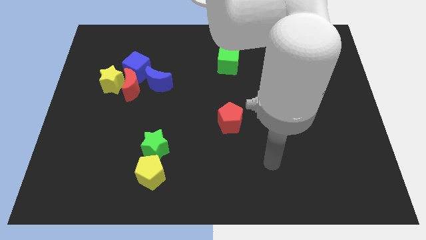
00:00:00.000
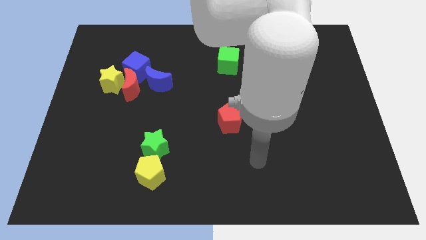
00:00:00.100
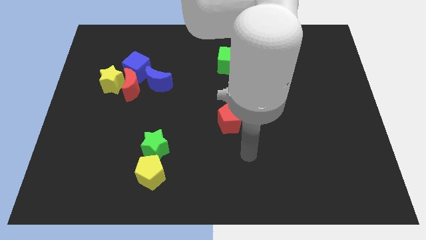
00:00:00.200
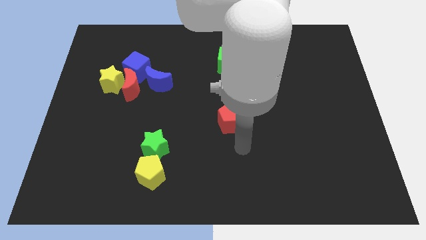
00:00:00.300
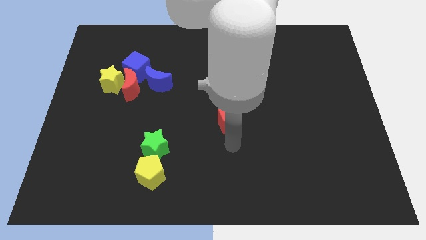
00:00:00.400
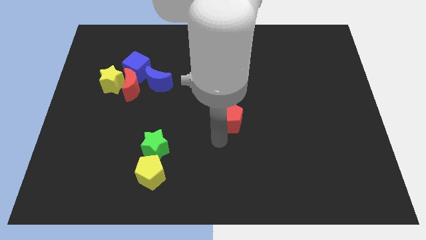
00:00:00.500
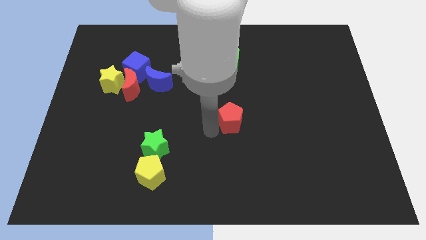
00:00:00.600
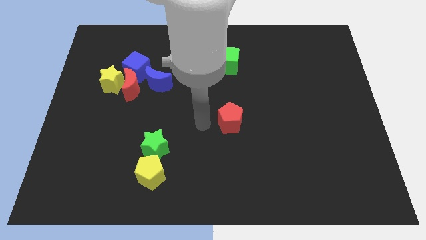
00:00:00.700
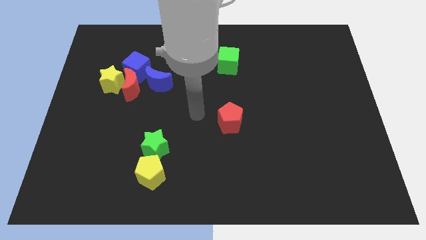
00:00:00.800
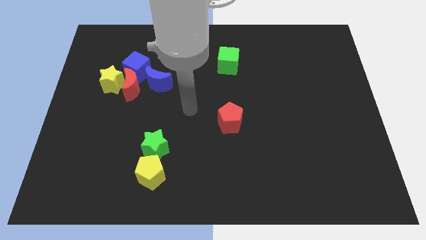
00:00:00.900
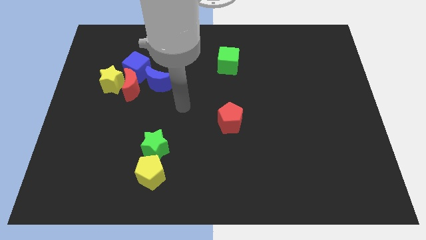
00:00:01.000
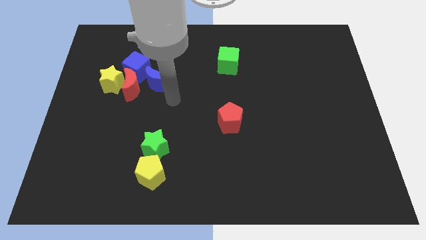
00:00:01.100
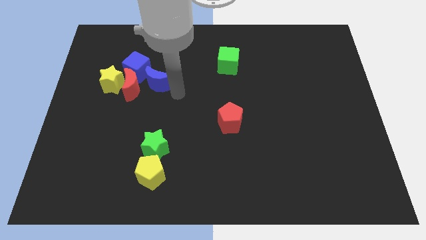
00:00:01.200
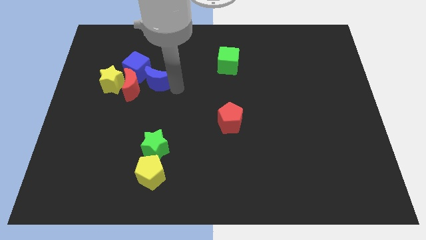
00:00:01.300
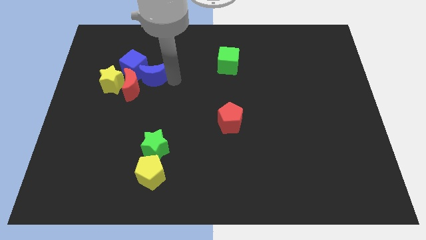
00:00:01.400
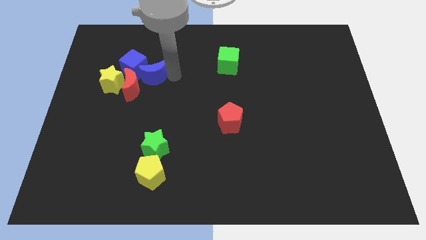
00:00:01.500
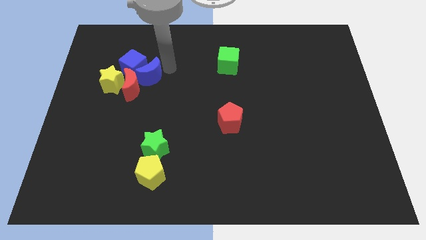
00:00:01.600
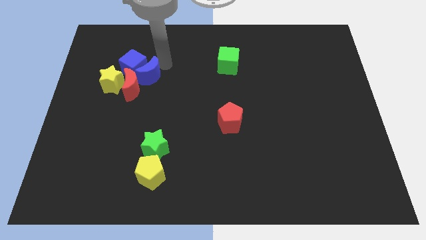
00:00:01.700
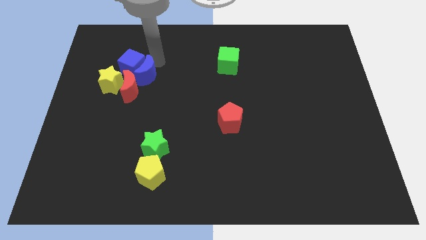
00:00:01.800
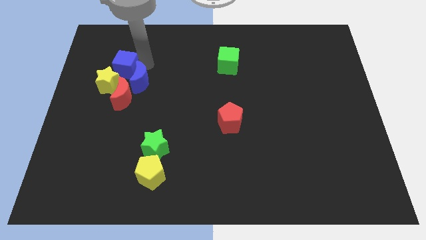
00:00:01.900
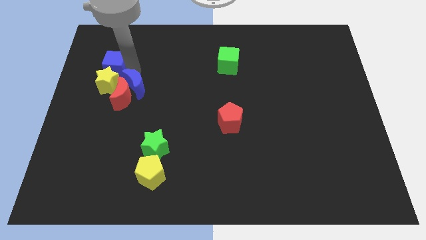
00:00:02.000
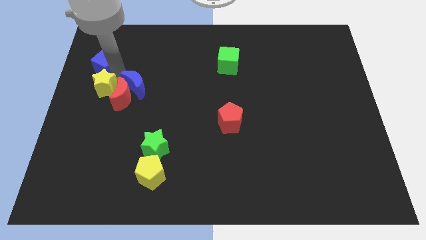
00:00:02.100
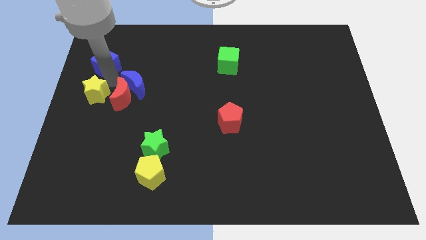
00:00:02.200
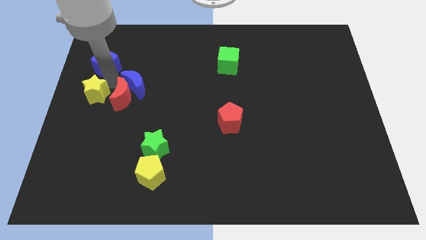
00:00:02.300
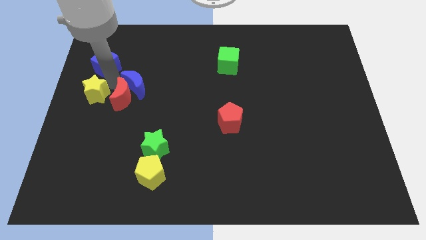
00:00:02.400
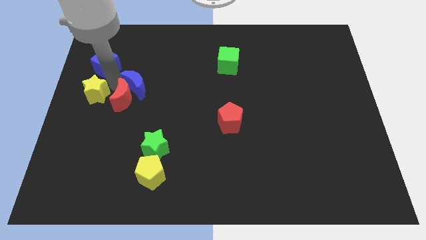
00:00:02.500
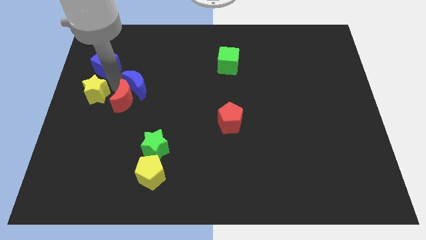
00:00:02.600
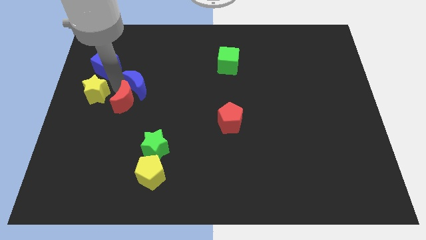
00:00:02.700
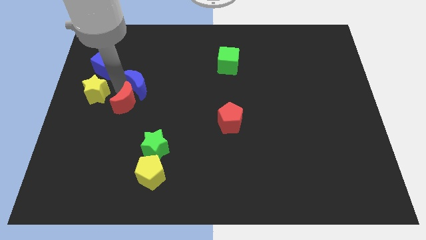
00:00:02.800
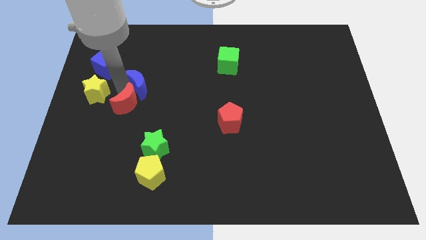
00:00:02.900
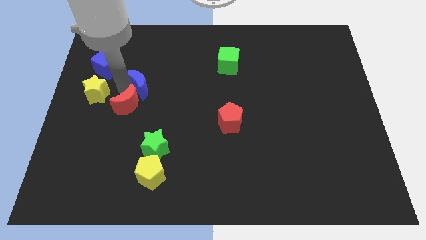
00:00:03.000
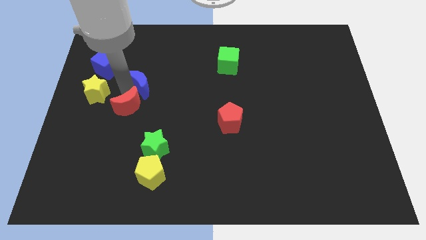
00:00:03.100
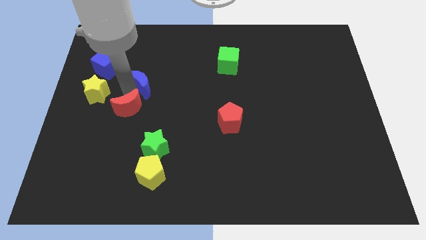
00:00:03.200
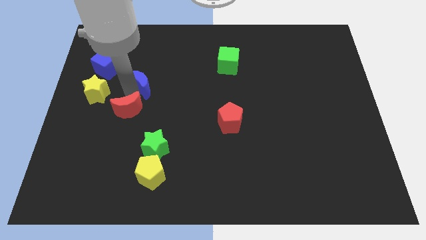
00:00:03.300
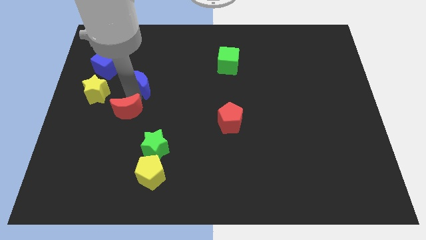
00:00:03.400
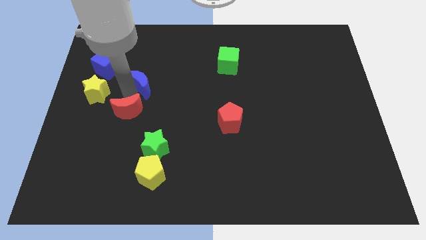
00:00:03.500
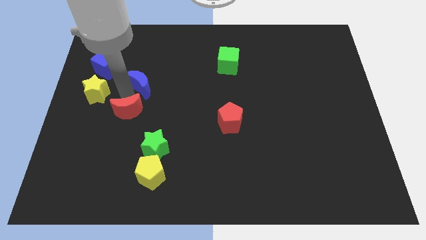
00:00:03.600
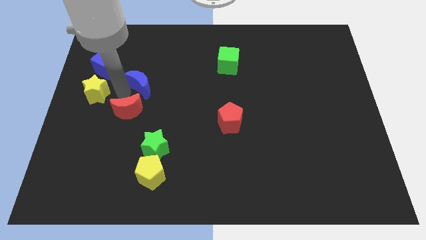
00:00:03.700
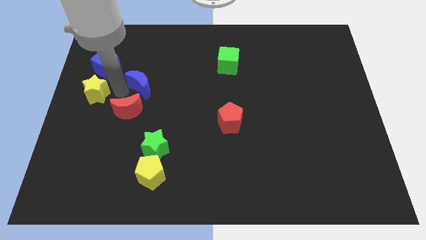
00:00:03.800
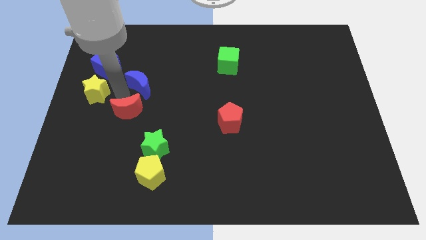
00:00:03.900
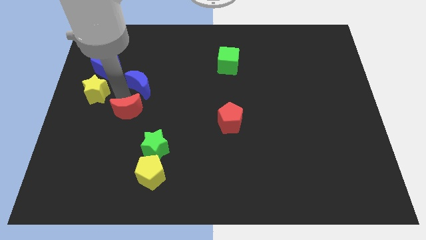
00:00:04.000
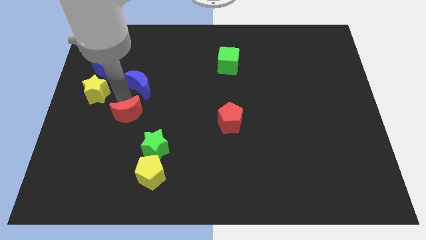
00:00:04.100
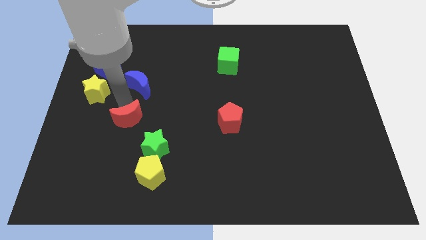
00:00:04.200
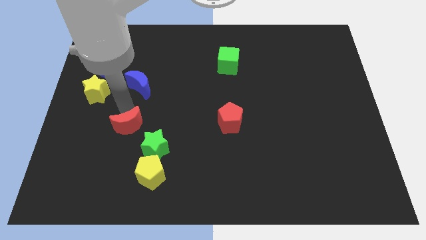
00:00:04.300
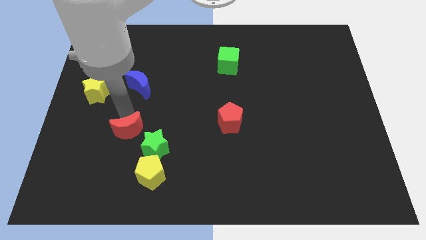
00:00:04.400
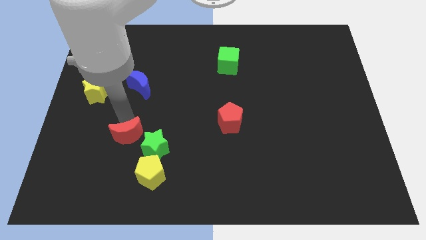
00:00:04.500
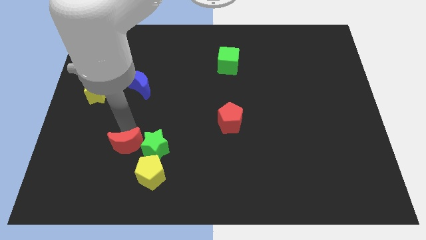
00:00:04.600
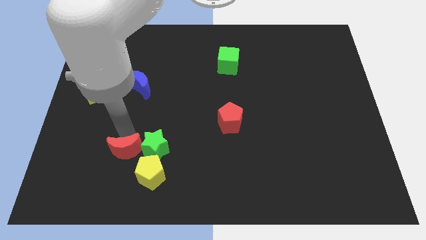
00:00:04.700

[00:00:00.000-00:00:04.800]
move the red moon to the bottom left of the green star

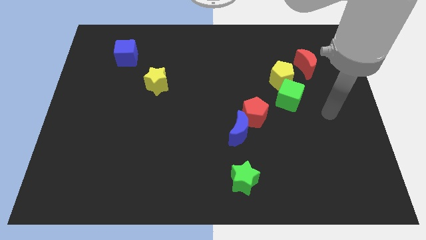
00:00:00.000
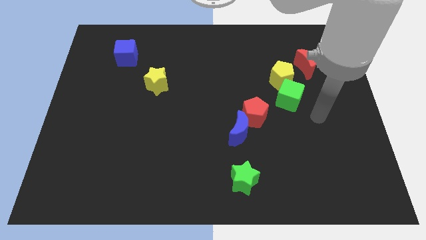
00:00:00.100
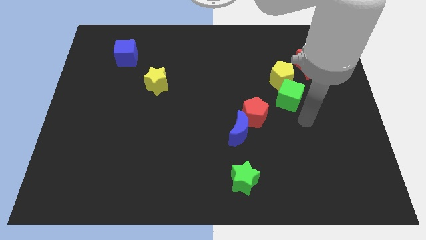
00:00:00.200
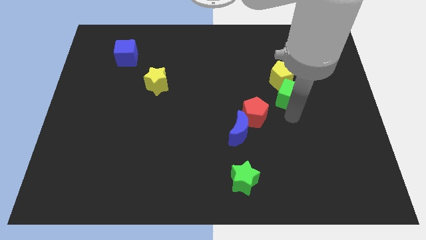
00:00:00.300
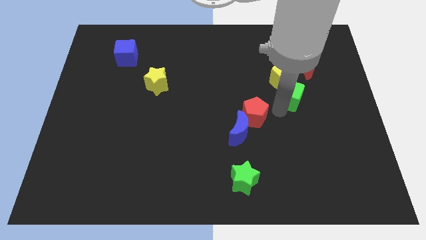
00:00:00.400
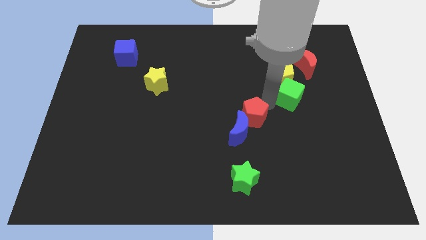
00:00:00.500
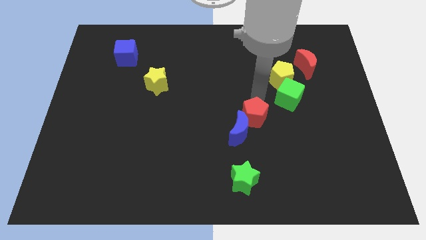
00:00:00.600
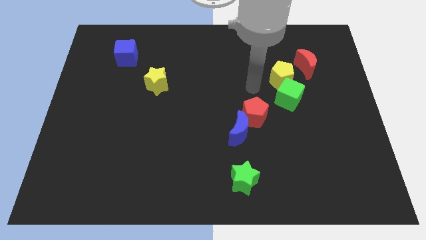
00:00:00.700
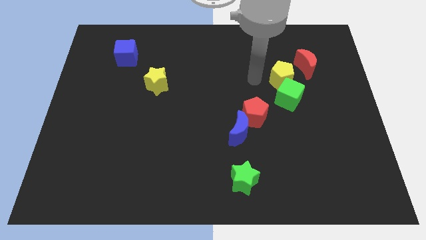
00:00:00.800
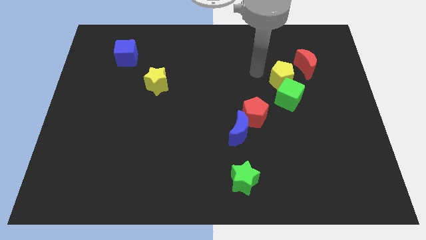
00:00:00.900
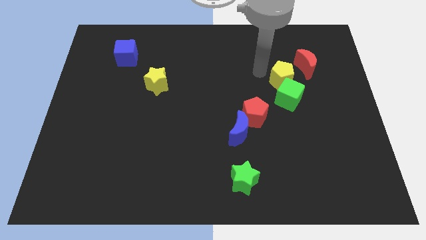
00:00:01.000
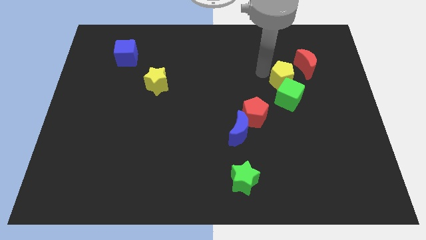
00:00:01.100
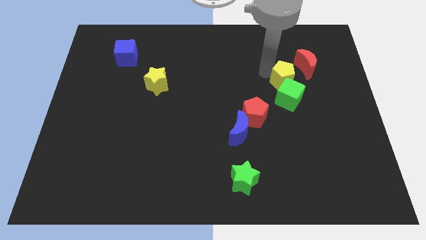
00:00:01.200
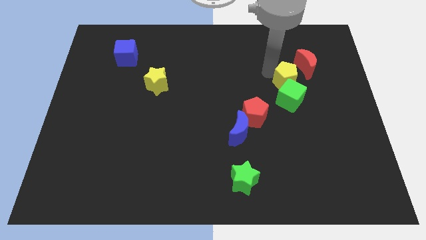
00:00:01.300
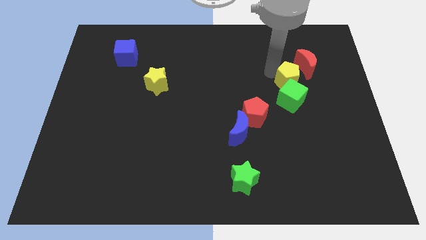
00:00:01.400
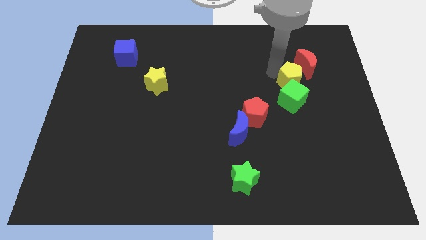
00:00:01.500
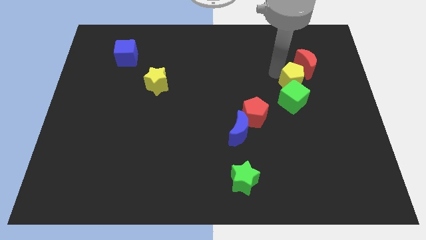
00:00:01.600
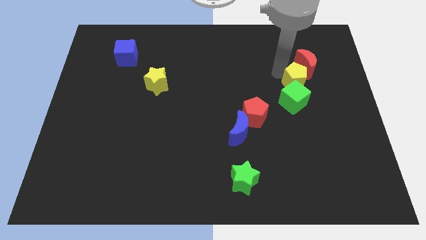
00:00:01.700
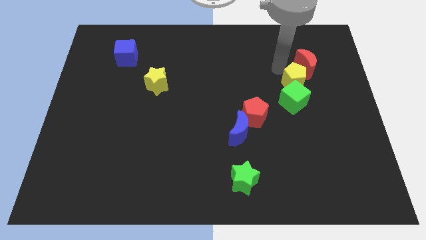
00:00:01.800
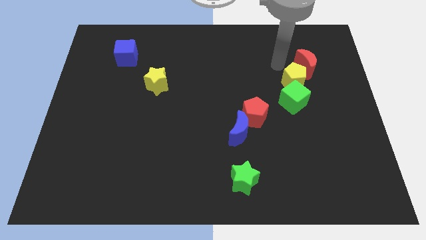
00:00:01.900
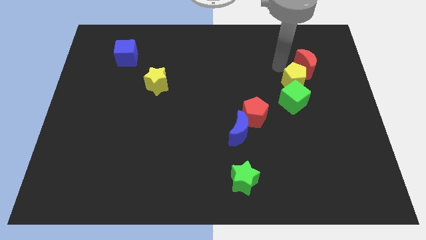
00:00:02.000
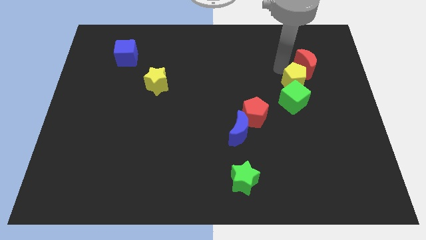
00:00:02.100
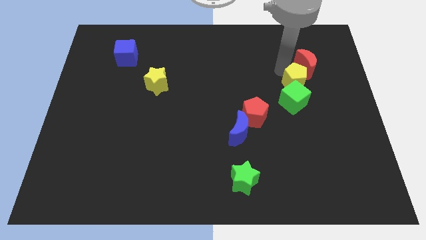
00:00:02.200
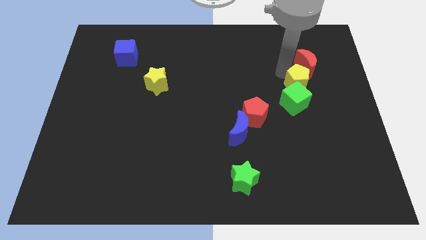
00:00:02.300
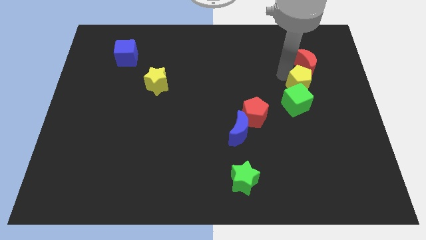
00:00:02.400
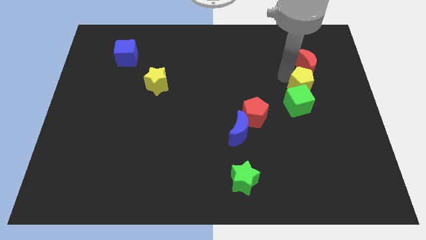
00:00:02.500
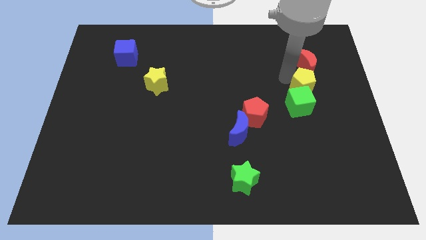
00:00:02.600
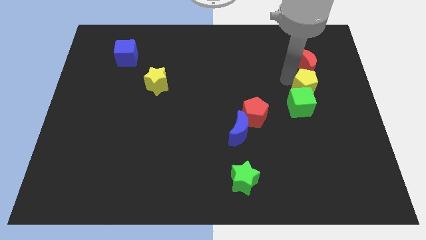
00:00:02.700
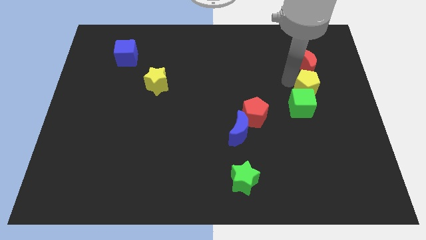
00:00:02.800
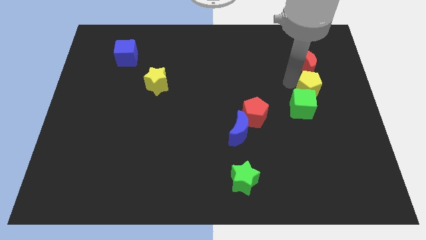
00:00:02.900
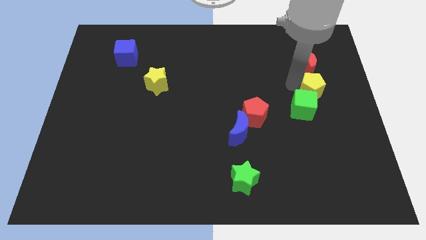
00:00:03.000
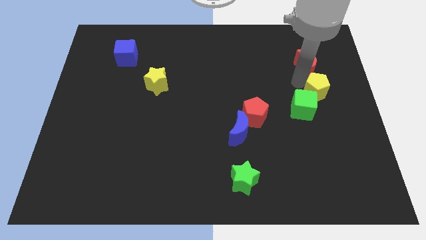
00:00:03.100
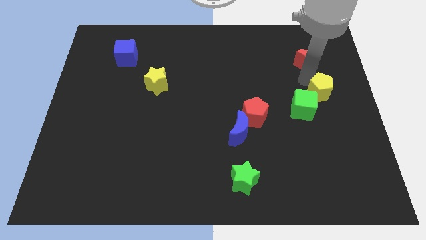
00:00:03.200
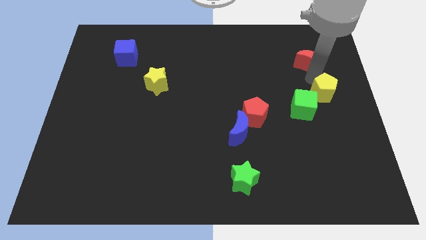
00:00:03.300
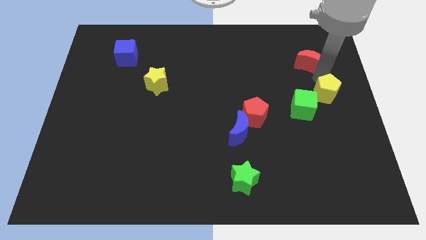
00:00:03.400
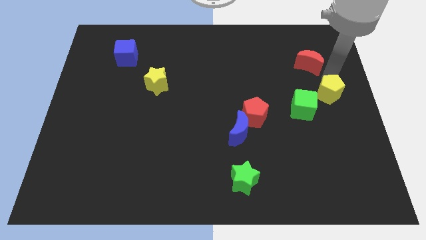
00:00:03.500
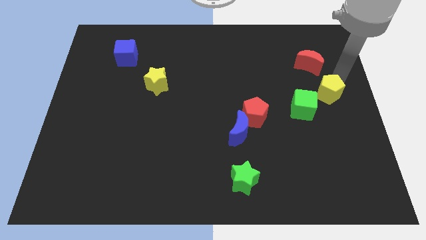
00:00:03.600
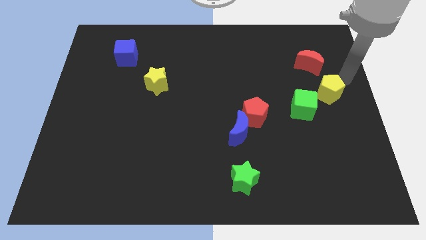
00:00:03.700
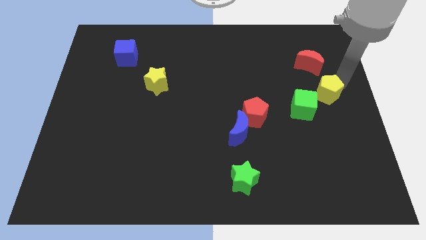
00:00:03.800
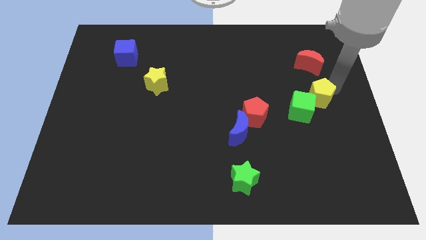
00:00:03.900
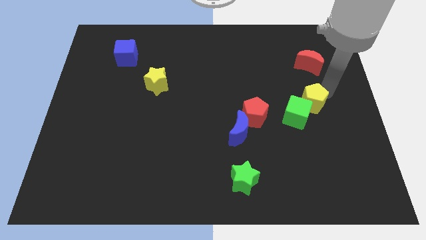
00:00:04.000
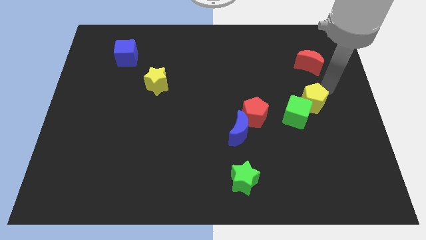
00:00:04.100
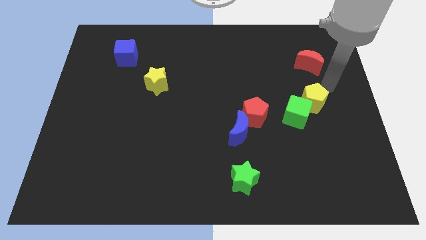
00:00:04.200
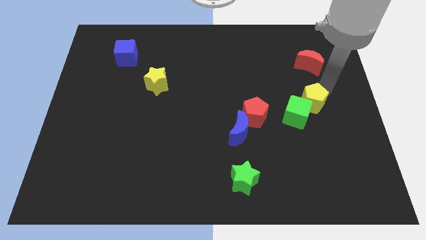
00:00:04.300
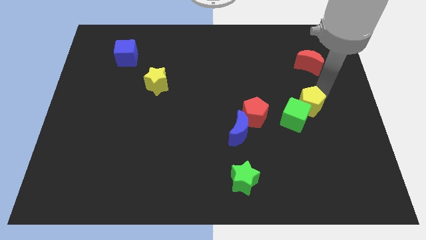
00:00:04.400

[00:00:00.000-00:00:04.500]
push the yellow pentagon to the right side of the red pentagon
